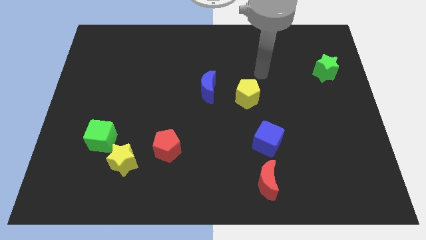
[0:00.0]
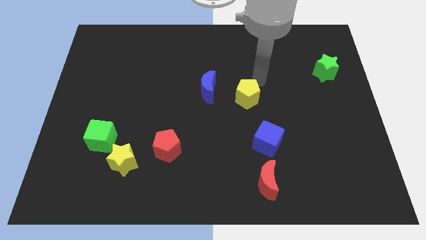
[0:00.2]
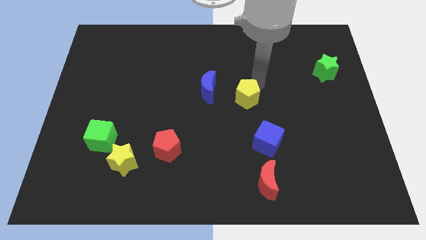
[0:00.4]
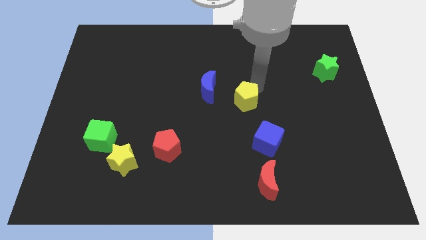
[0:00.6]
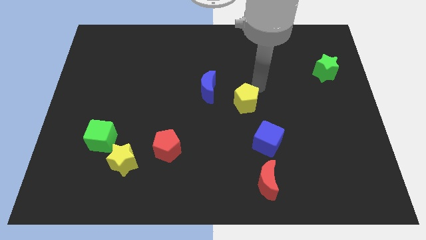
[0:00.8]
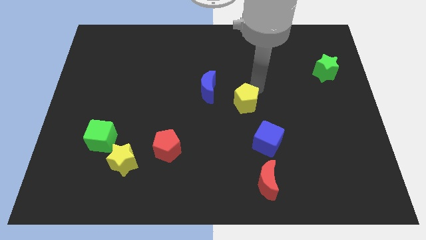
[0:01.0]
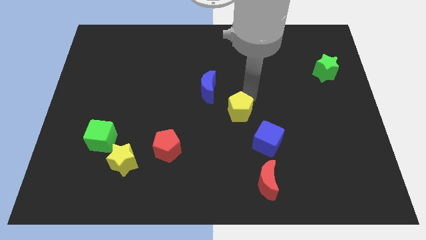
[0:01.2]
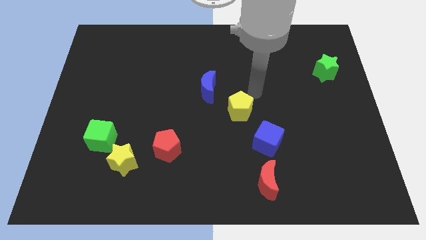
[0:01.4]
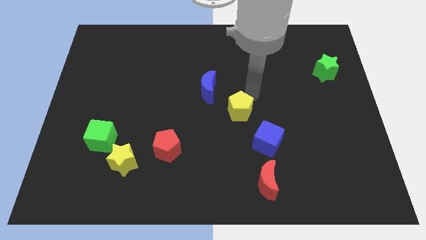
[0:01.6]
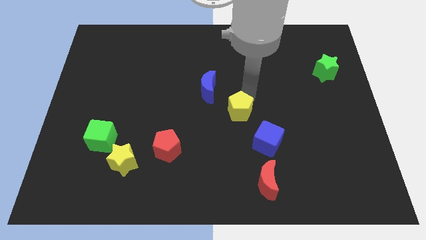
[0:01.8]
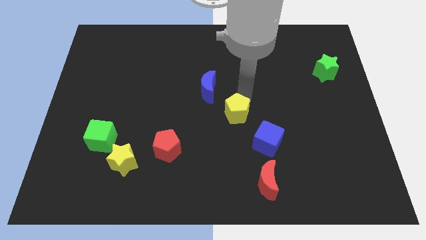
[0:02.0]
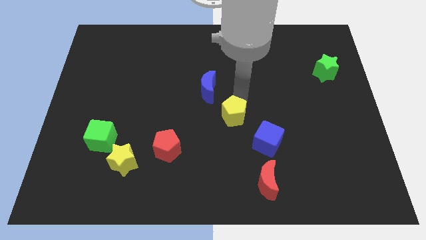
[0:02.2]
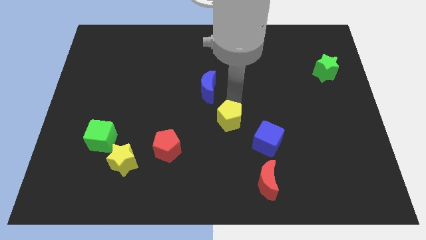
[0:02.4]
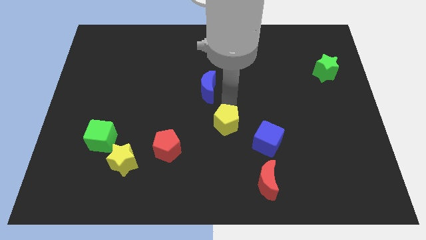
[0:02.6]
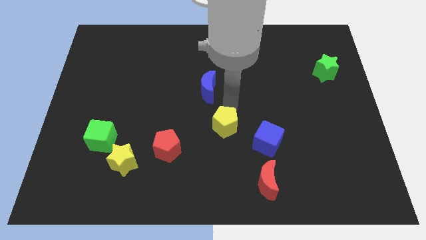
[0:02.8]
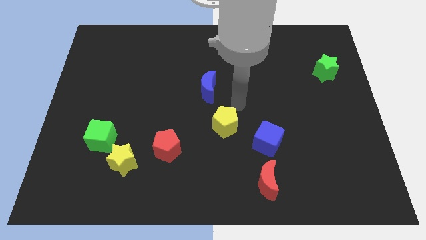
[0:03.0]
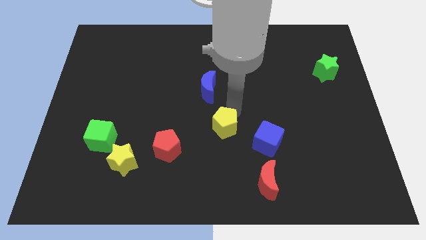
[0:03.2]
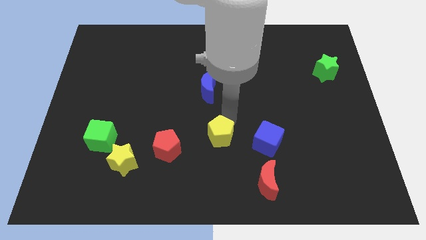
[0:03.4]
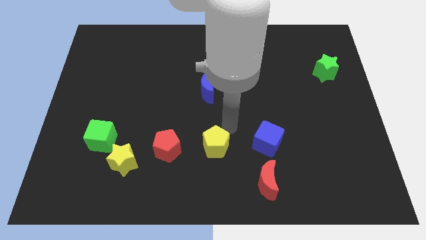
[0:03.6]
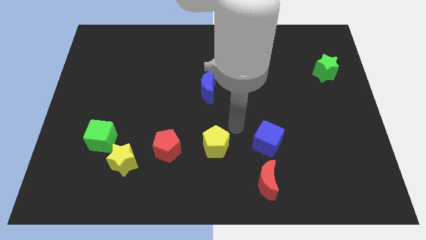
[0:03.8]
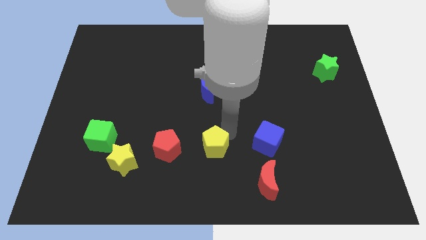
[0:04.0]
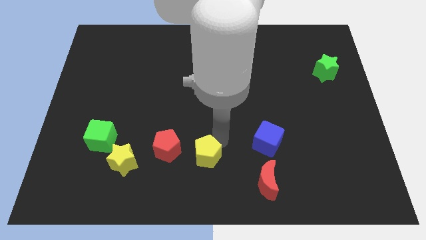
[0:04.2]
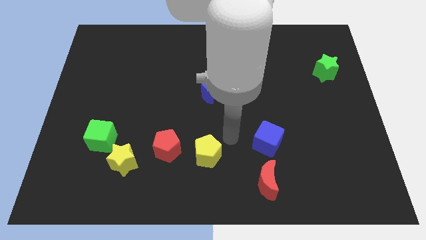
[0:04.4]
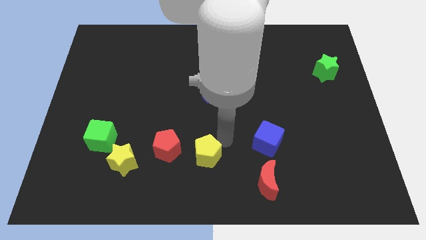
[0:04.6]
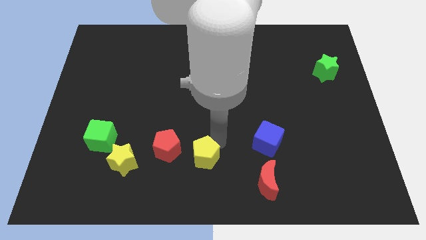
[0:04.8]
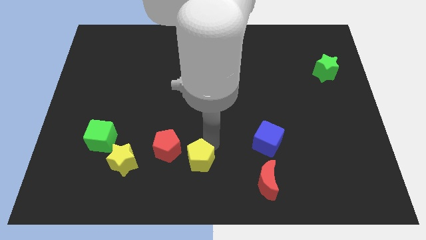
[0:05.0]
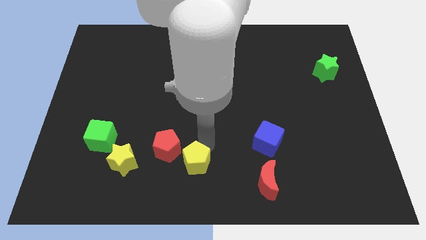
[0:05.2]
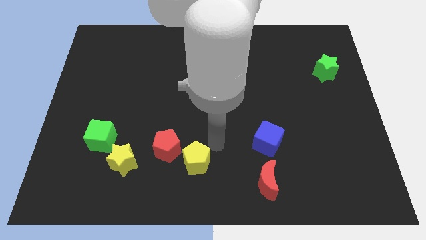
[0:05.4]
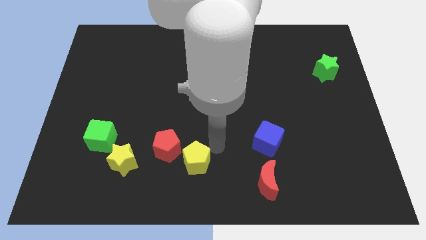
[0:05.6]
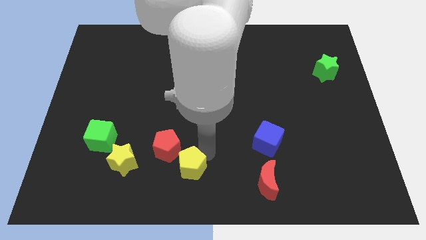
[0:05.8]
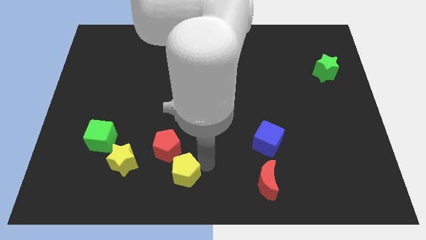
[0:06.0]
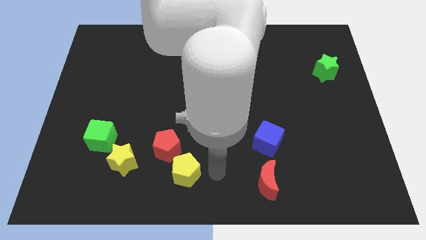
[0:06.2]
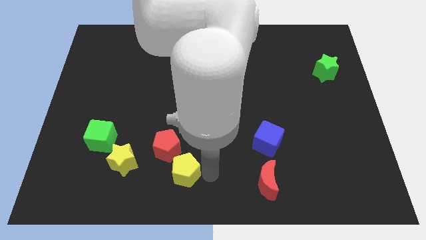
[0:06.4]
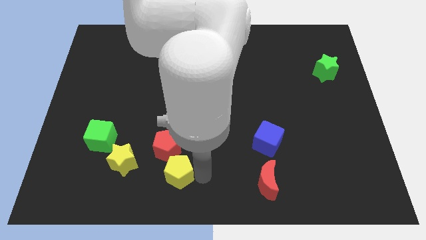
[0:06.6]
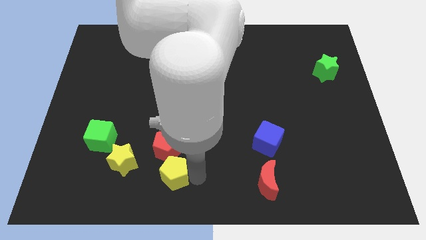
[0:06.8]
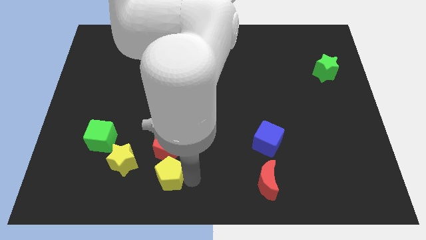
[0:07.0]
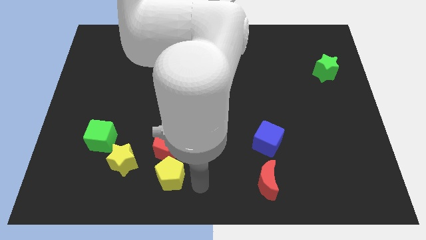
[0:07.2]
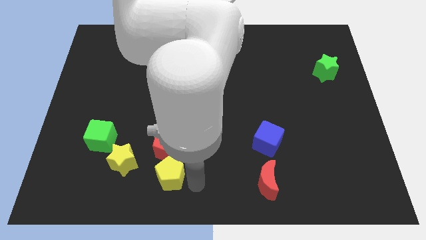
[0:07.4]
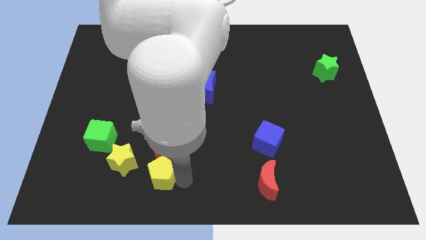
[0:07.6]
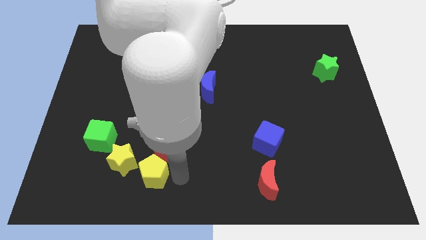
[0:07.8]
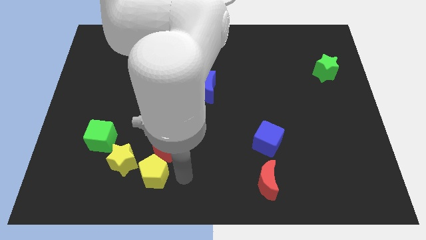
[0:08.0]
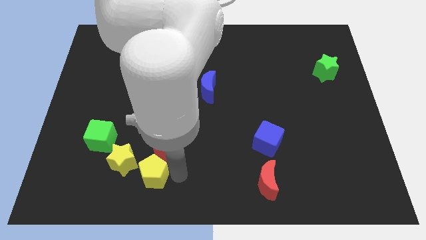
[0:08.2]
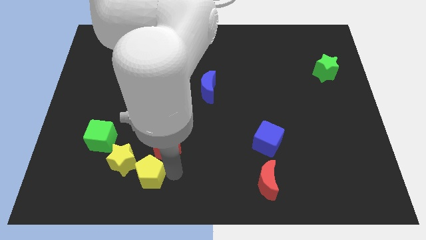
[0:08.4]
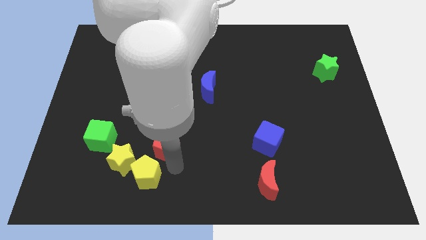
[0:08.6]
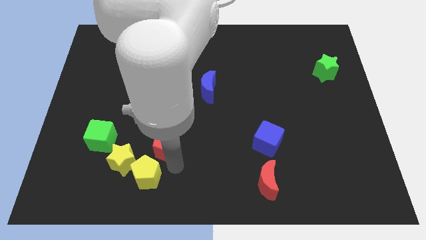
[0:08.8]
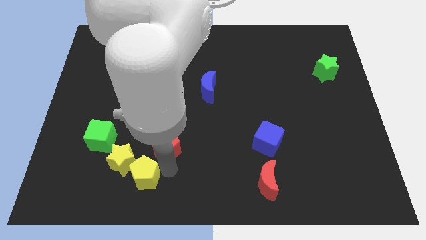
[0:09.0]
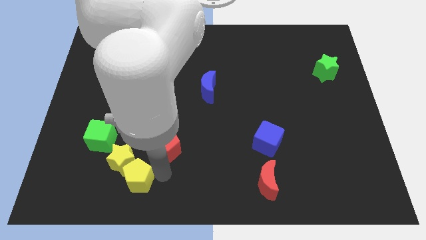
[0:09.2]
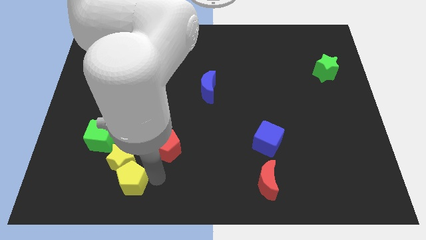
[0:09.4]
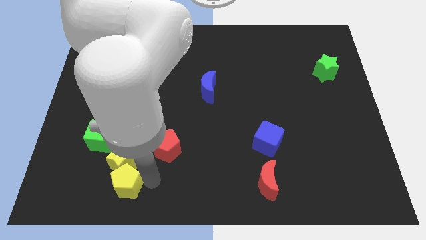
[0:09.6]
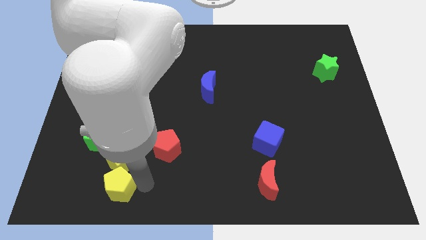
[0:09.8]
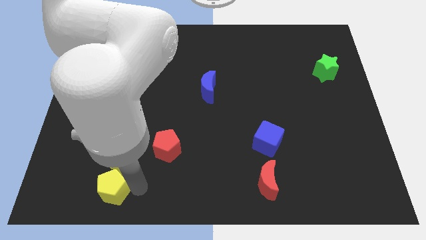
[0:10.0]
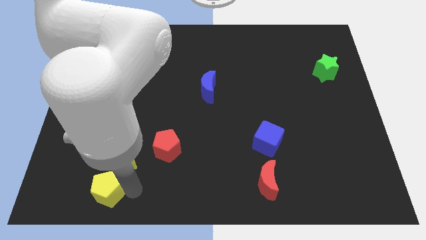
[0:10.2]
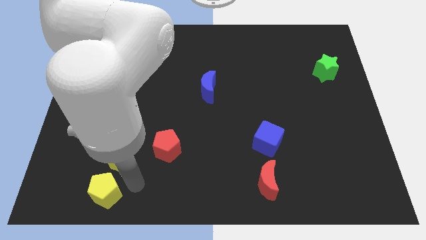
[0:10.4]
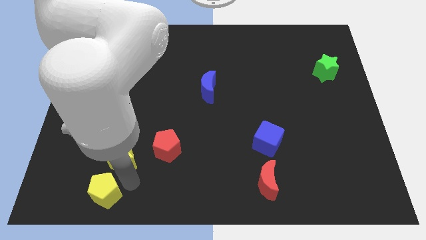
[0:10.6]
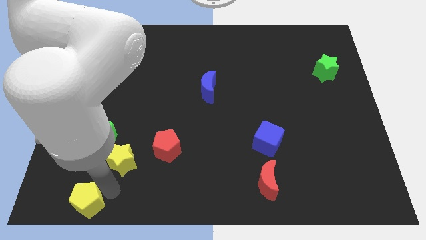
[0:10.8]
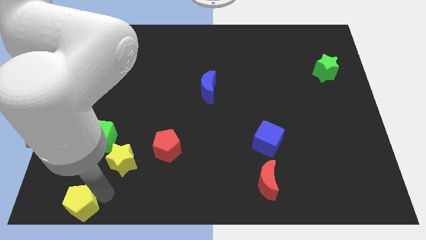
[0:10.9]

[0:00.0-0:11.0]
slide the yellow pentagon to the lower left corner

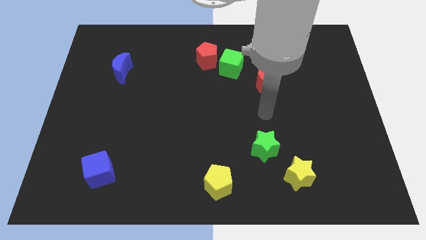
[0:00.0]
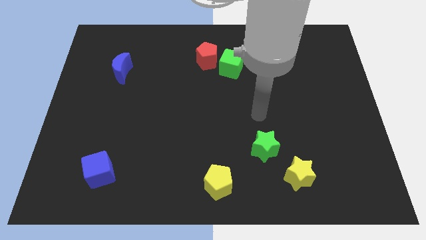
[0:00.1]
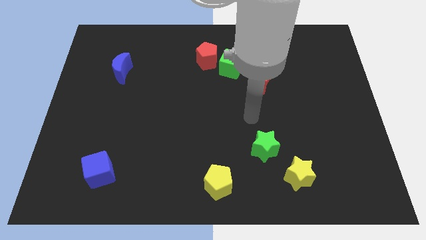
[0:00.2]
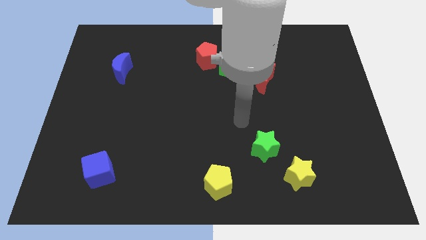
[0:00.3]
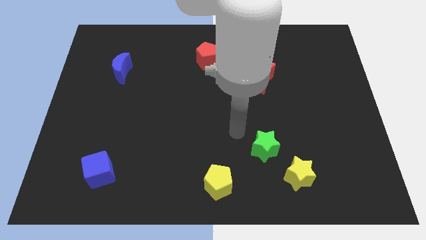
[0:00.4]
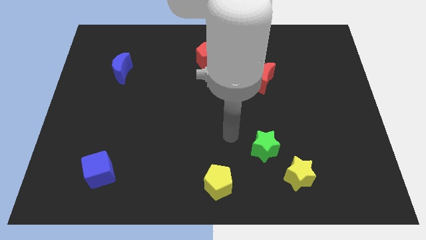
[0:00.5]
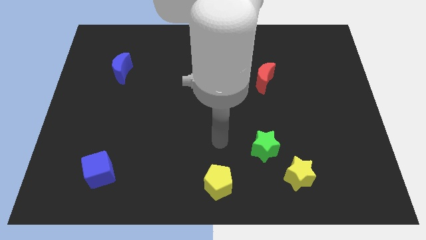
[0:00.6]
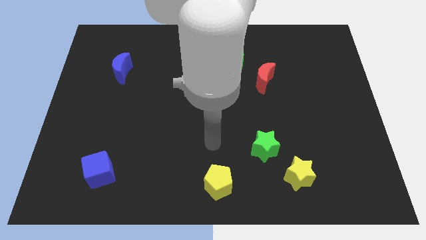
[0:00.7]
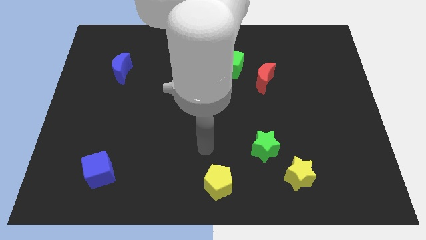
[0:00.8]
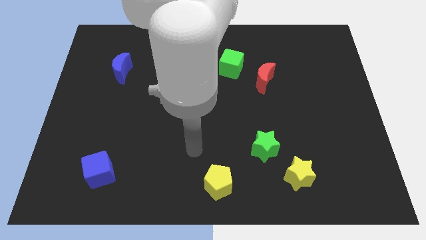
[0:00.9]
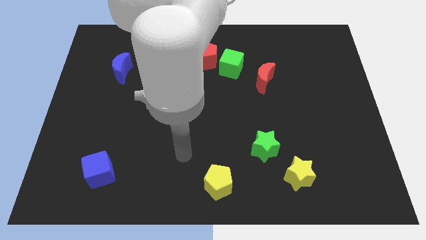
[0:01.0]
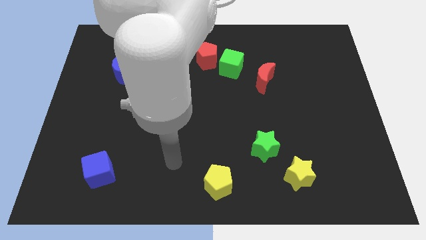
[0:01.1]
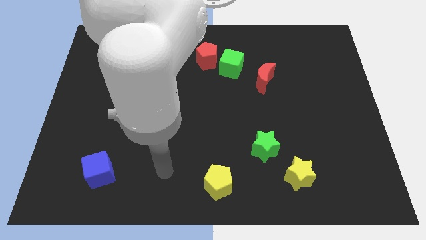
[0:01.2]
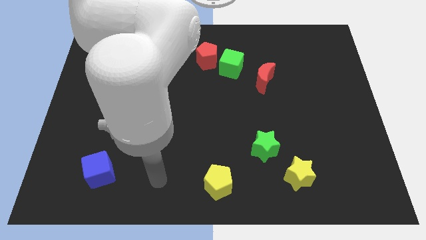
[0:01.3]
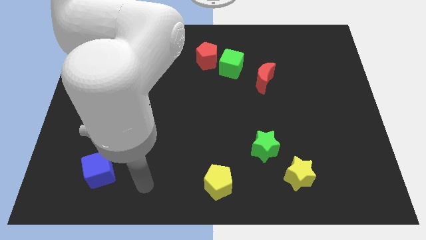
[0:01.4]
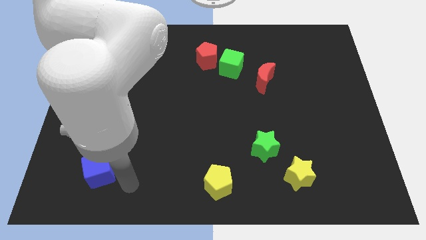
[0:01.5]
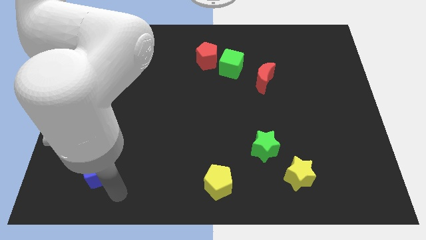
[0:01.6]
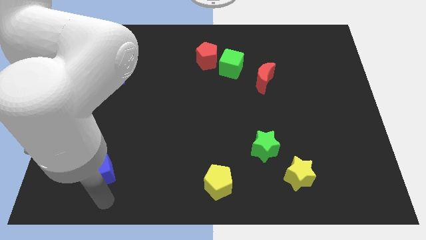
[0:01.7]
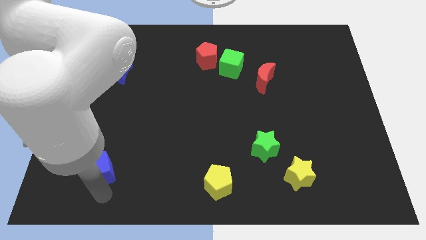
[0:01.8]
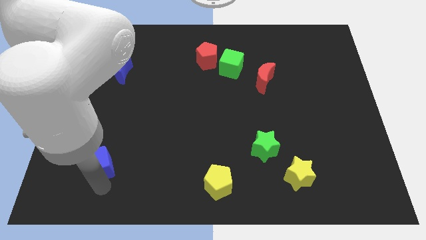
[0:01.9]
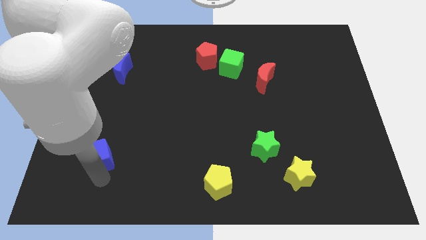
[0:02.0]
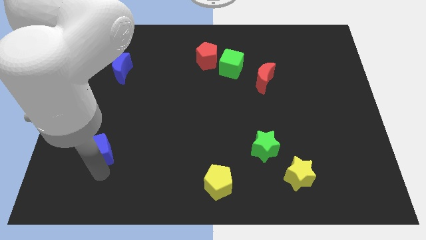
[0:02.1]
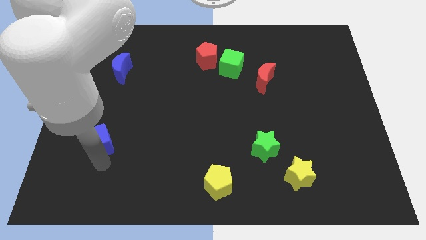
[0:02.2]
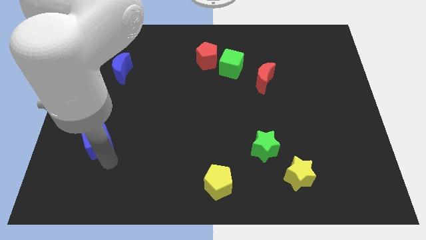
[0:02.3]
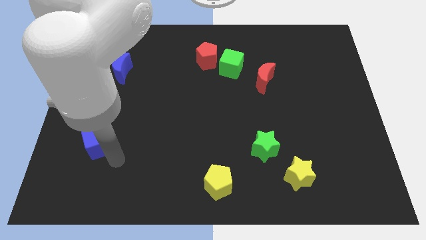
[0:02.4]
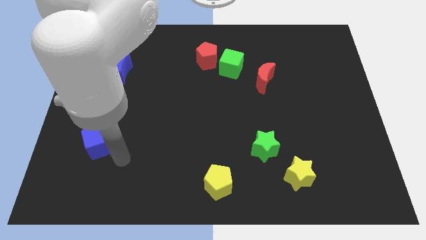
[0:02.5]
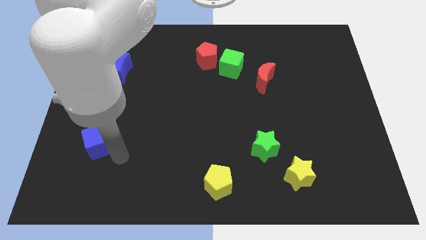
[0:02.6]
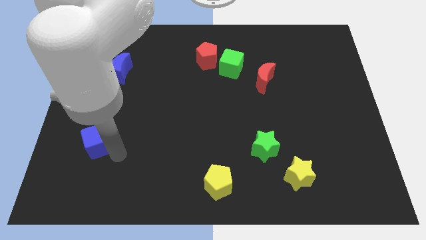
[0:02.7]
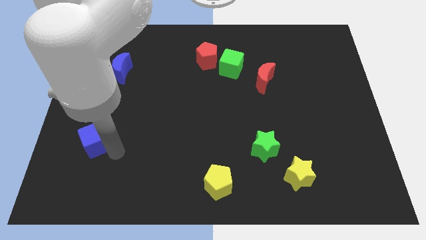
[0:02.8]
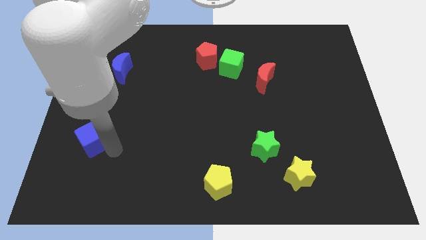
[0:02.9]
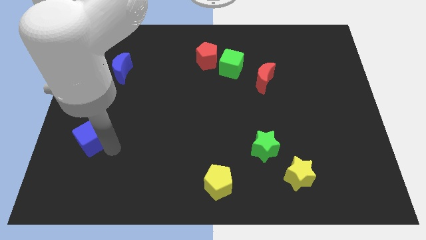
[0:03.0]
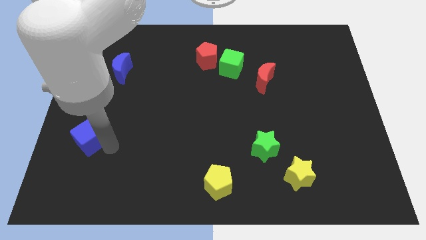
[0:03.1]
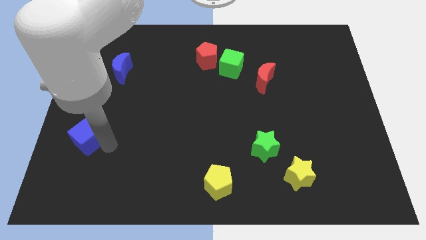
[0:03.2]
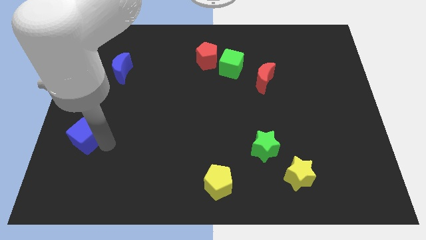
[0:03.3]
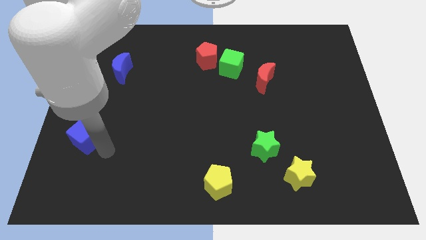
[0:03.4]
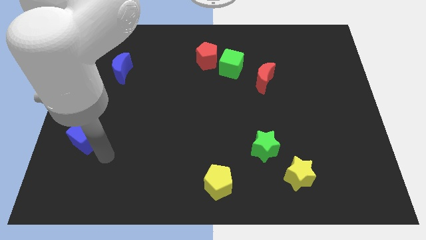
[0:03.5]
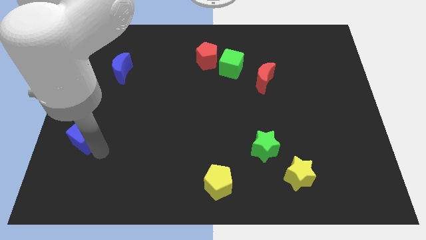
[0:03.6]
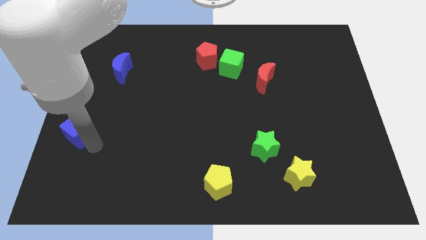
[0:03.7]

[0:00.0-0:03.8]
push the blue cube to the center left
